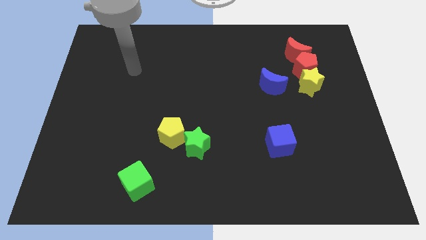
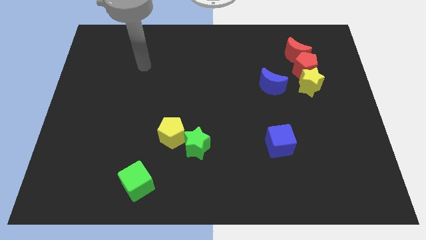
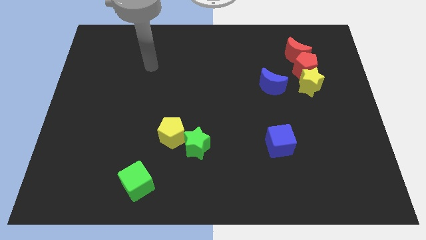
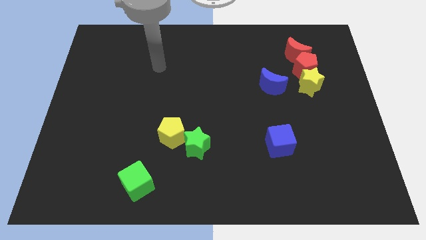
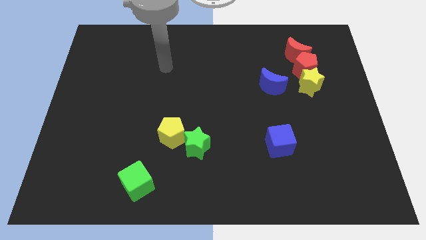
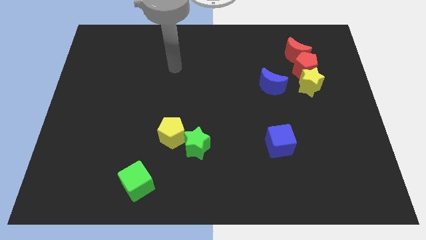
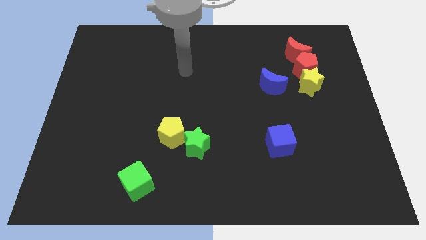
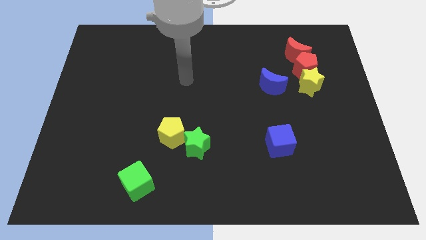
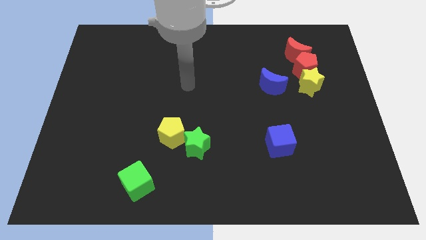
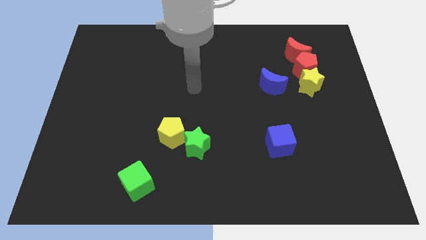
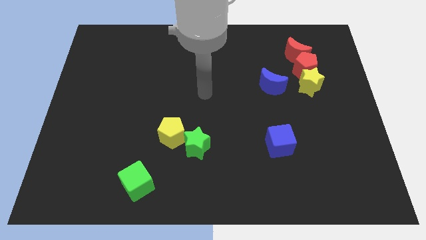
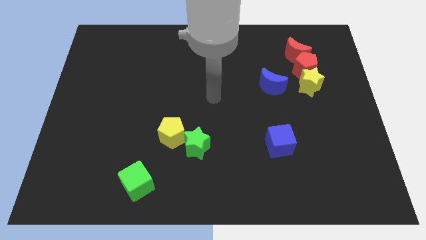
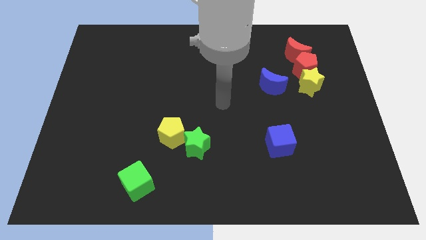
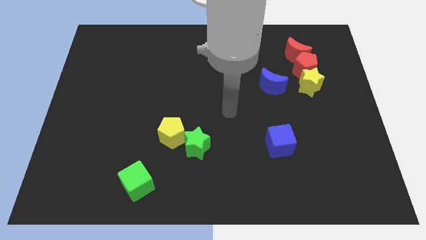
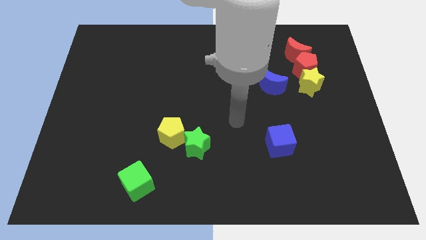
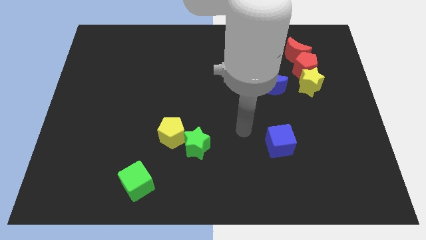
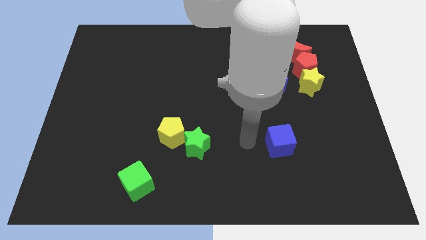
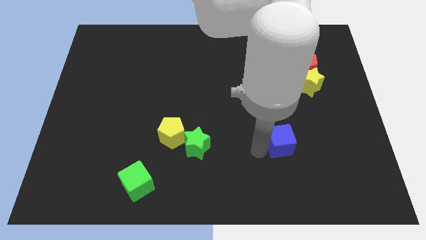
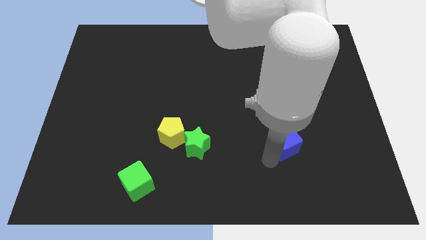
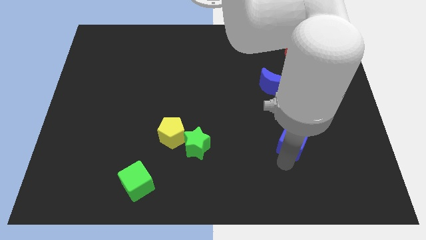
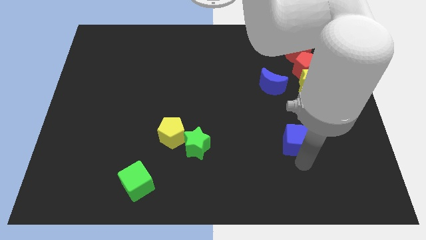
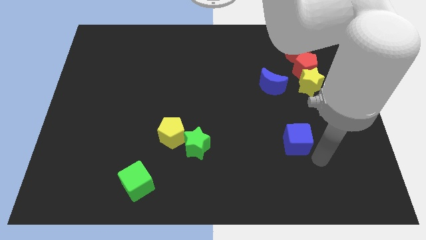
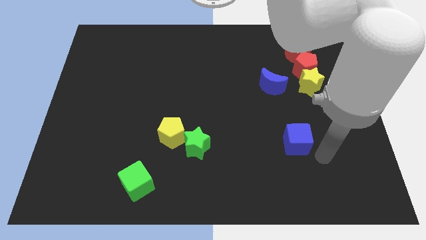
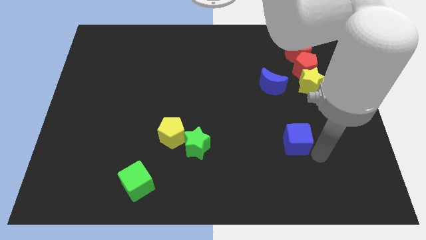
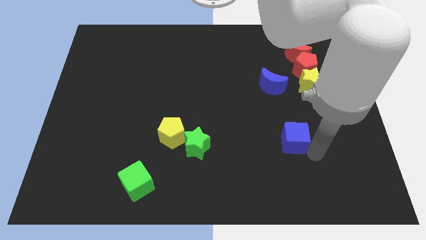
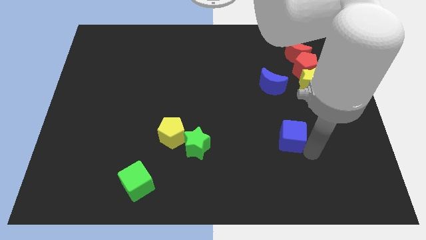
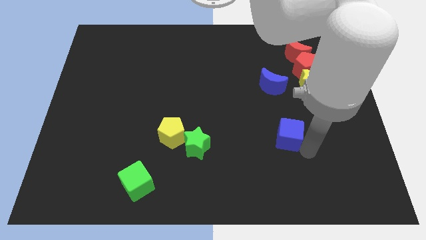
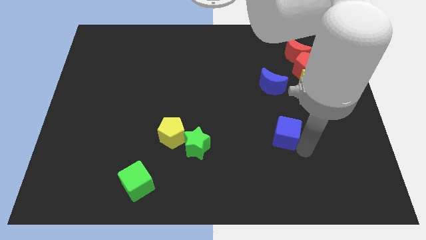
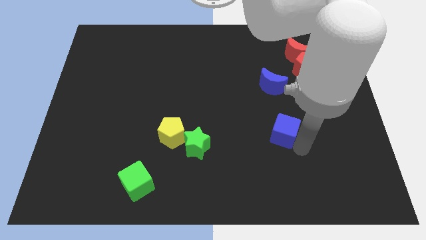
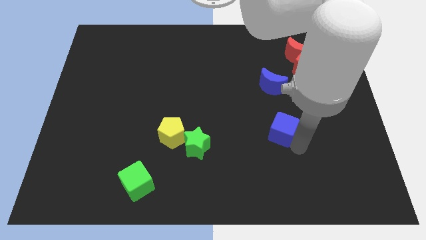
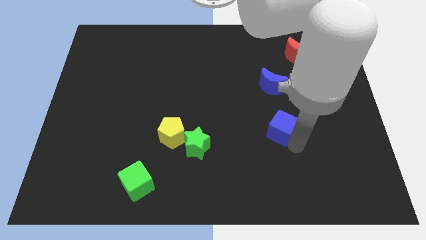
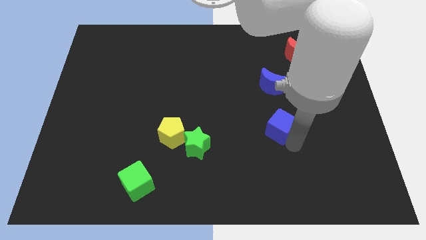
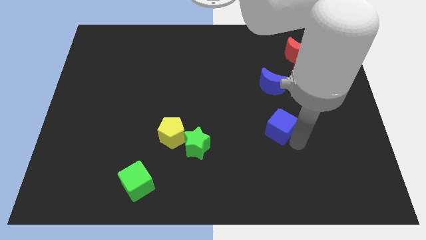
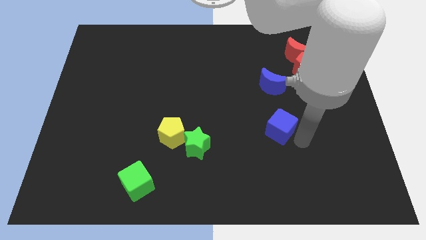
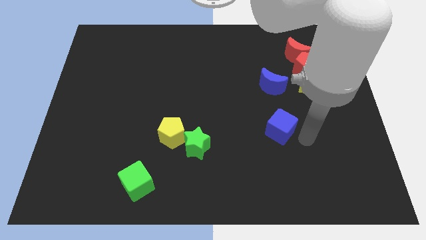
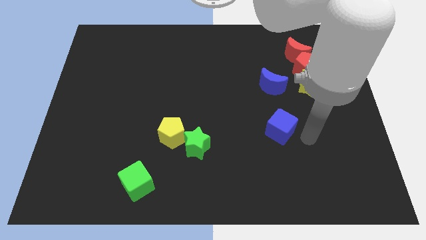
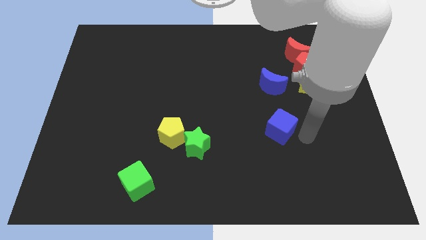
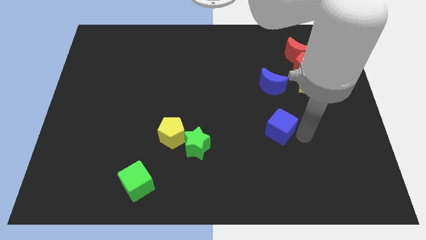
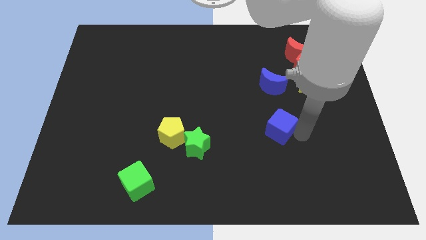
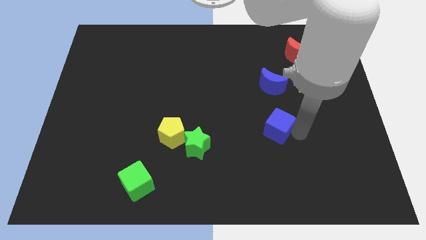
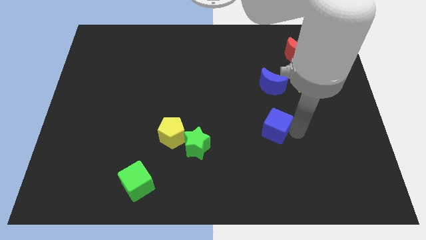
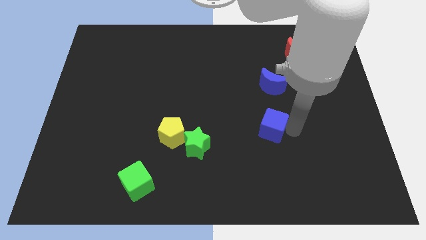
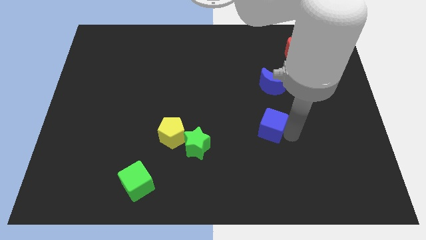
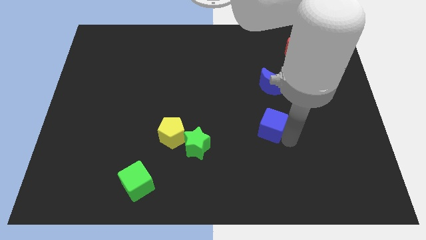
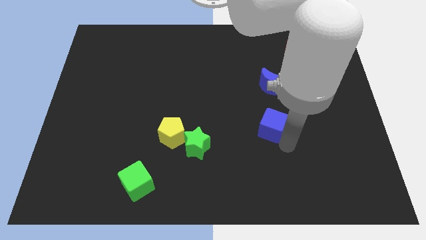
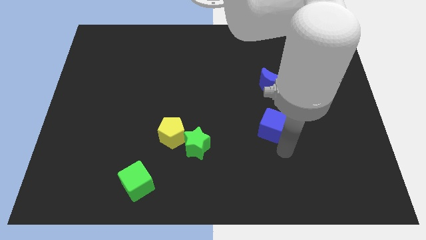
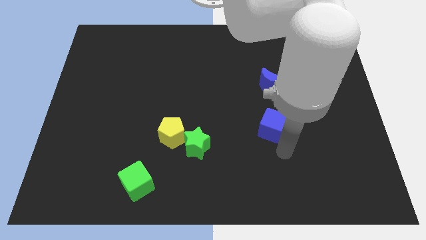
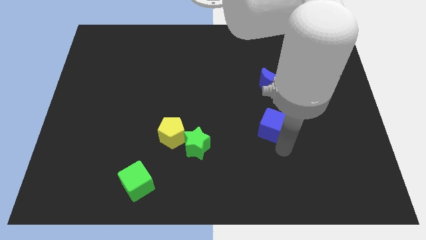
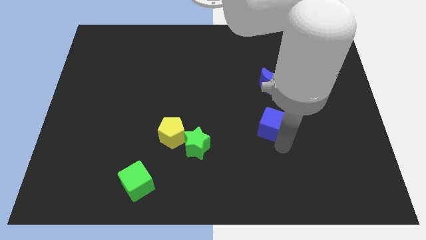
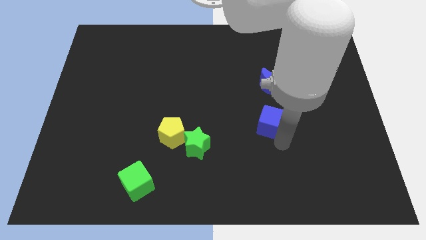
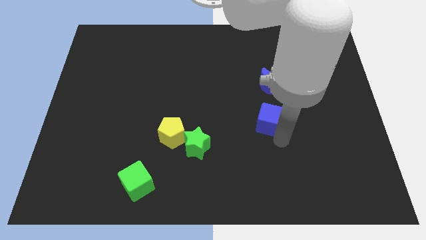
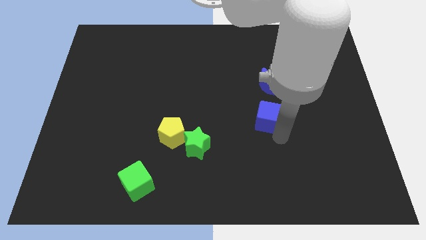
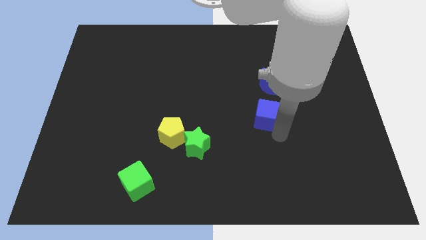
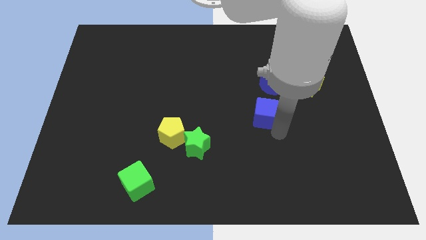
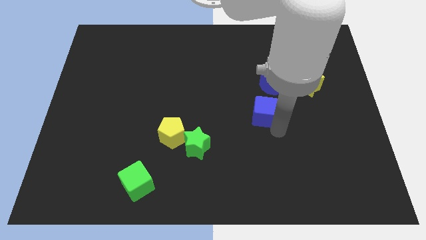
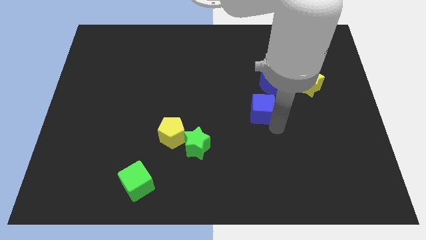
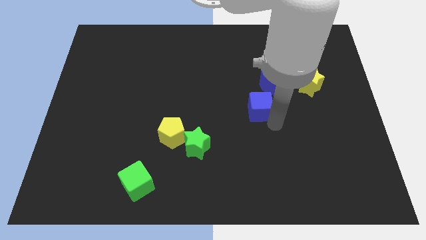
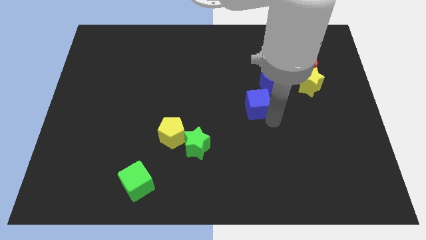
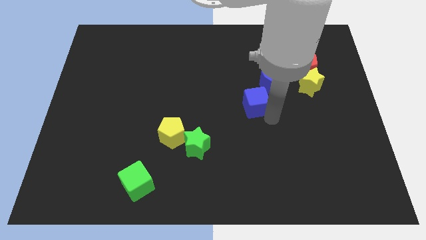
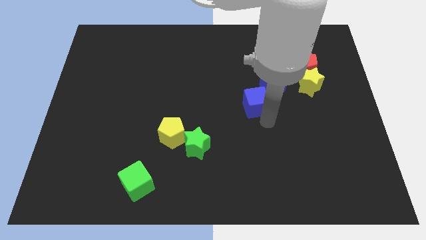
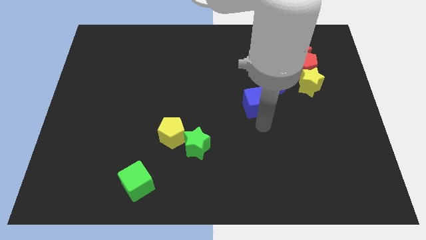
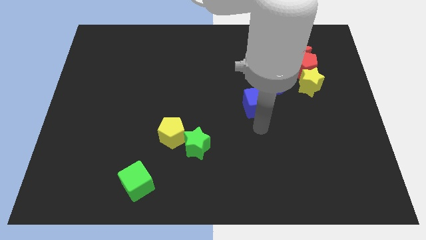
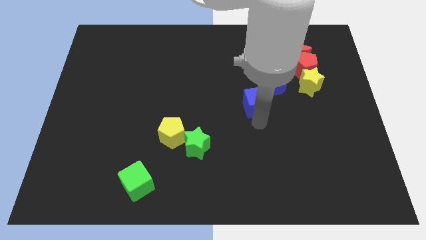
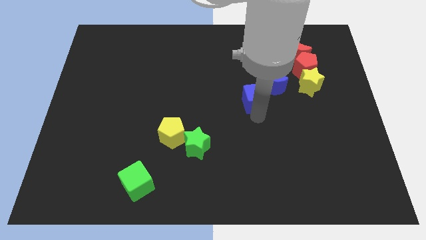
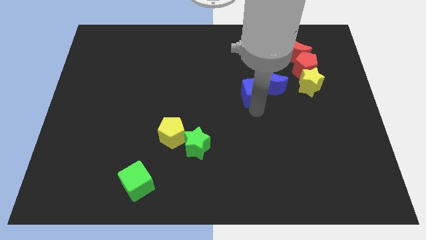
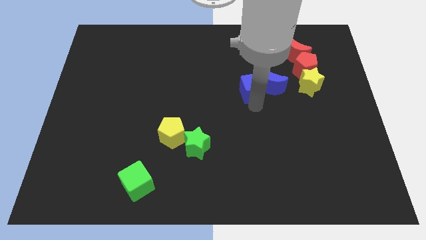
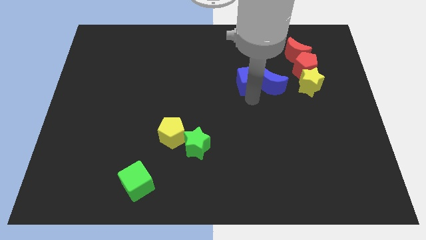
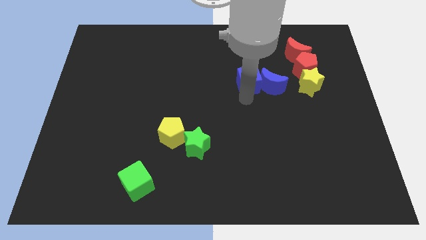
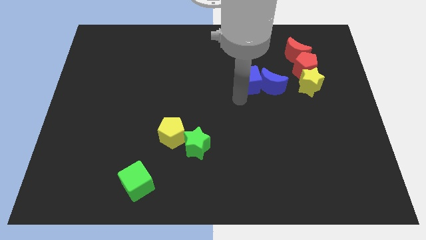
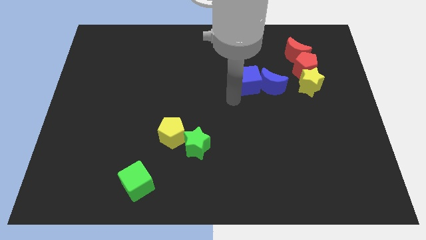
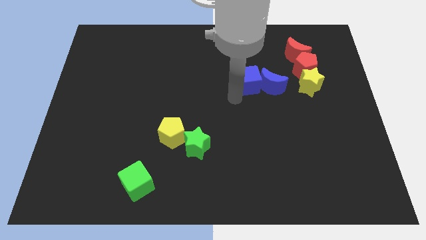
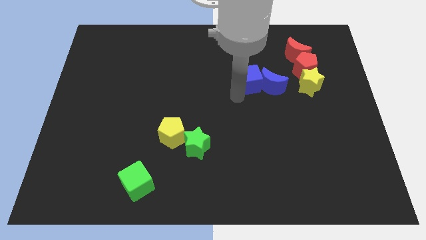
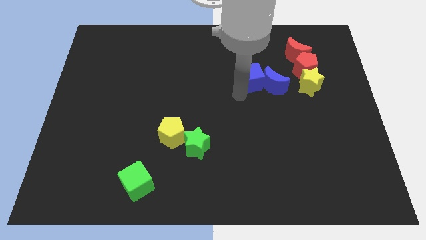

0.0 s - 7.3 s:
slide the blue cube left of the red pentagon
